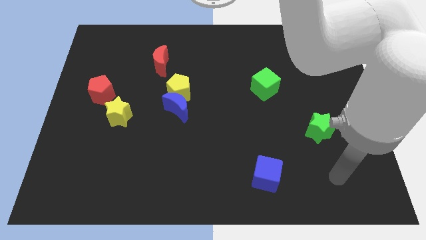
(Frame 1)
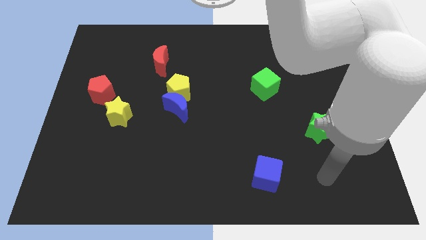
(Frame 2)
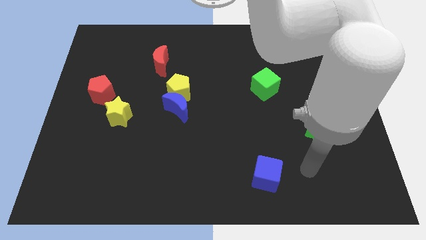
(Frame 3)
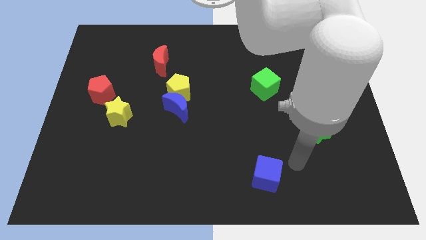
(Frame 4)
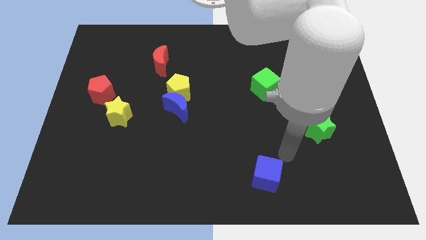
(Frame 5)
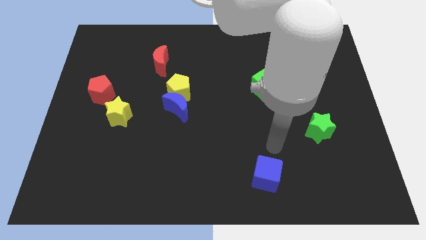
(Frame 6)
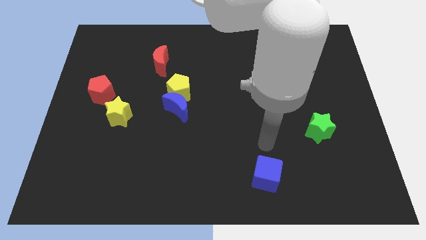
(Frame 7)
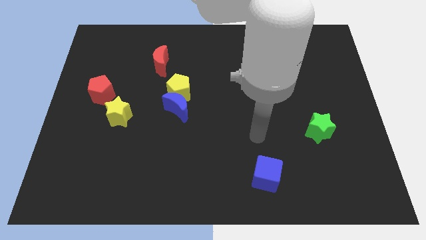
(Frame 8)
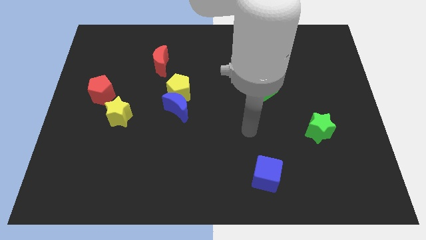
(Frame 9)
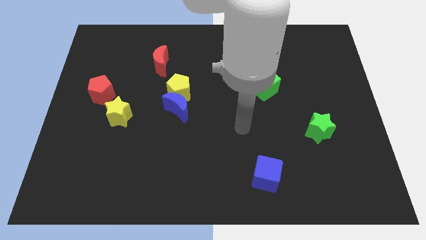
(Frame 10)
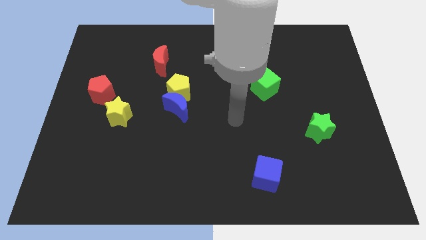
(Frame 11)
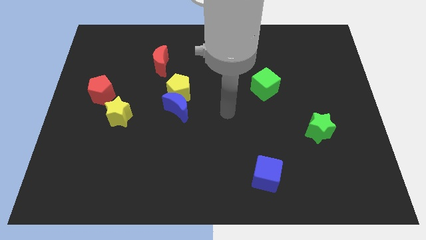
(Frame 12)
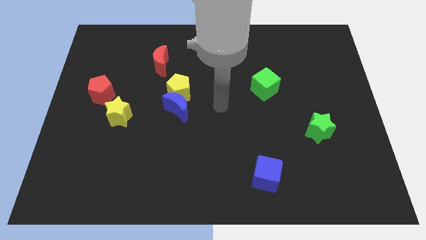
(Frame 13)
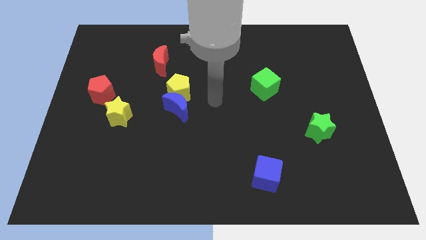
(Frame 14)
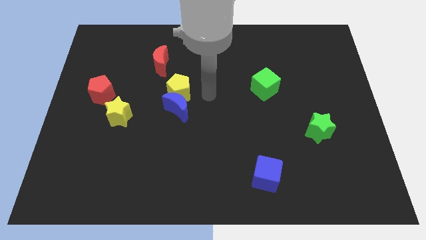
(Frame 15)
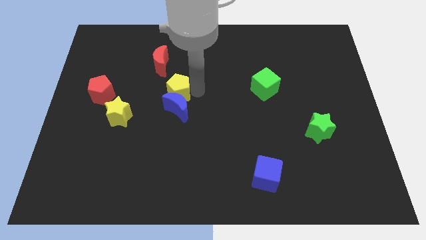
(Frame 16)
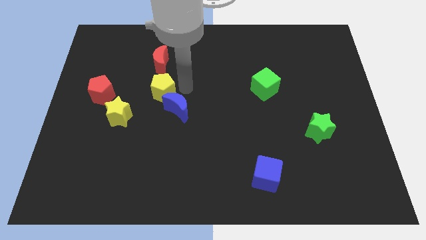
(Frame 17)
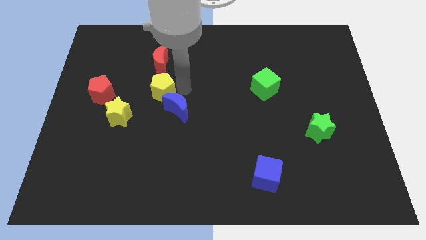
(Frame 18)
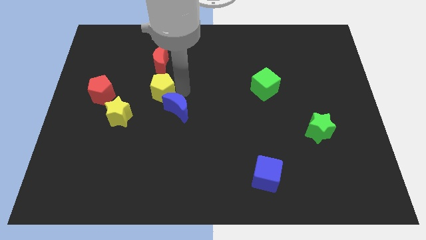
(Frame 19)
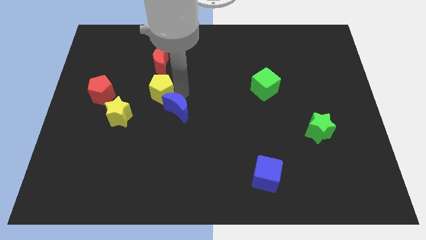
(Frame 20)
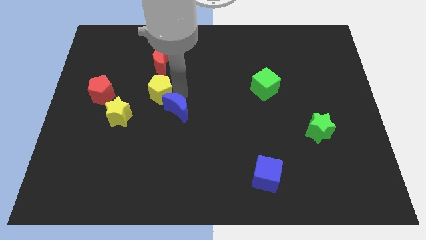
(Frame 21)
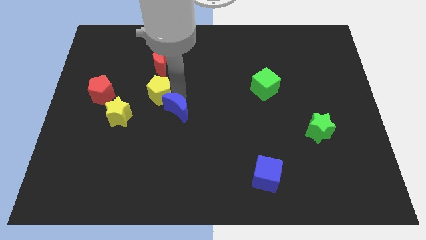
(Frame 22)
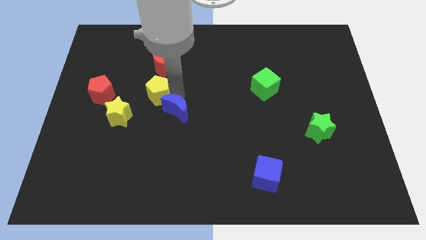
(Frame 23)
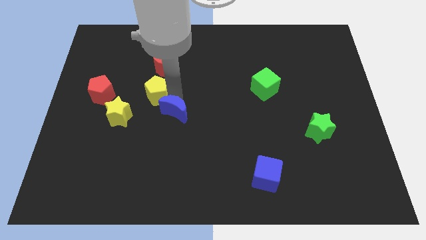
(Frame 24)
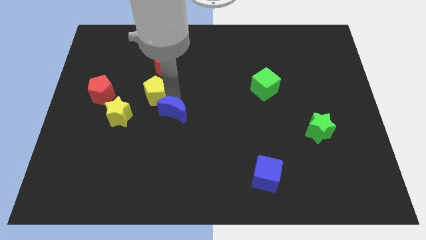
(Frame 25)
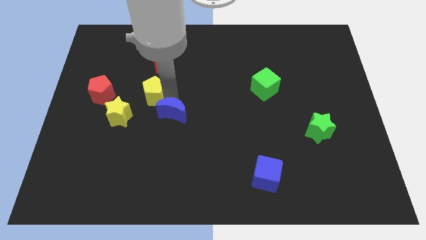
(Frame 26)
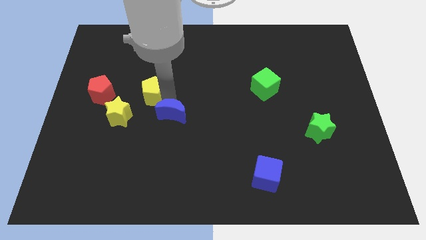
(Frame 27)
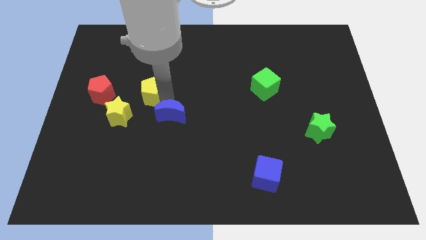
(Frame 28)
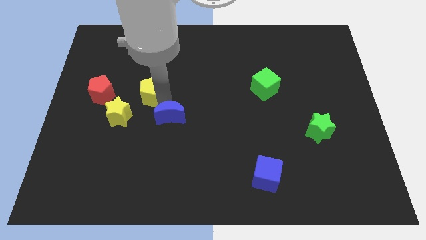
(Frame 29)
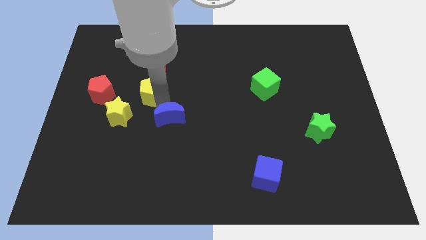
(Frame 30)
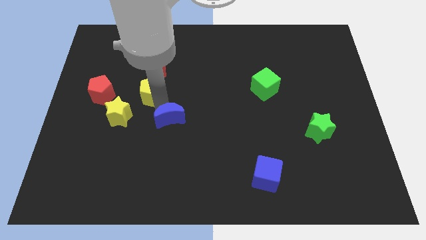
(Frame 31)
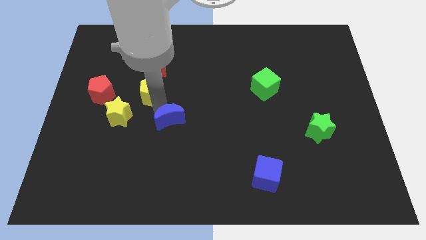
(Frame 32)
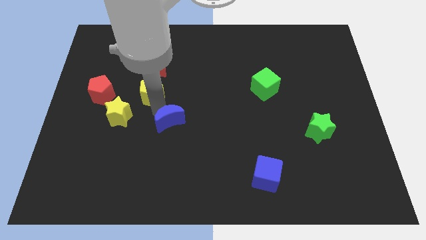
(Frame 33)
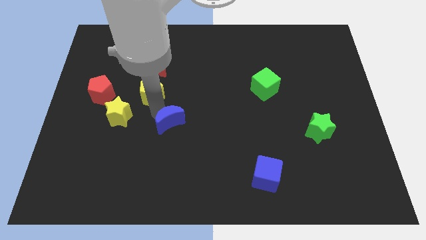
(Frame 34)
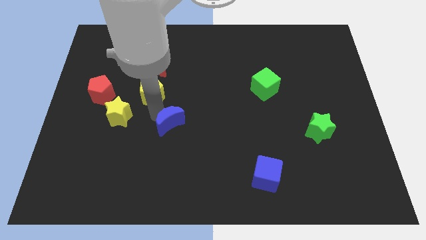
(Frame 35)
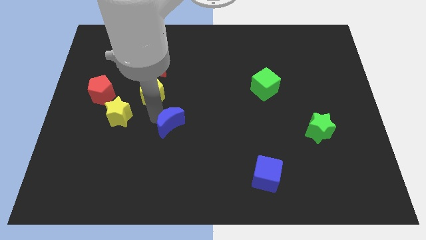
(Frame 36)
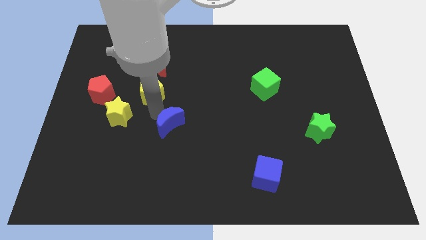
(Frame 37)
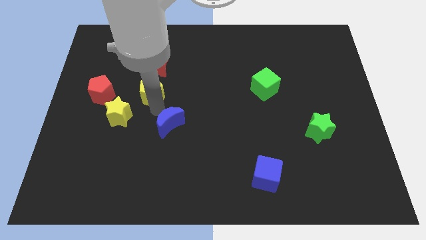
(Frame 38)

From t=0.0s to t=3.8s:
pull the blue moon apart from the yellow pentagon

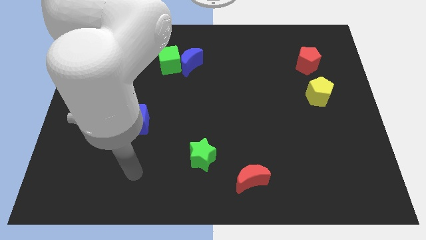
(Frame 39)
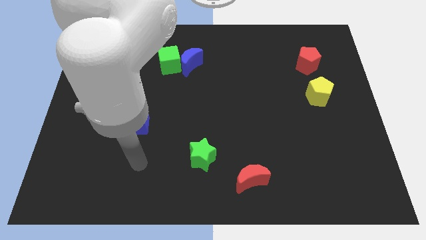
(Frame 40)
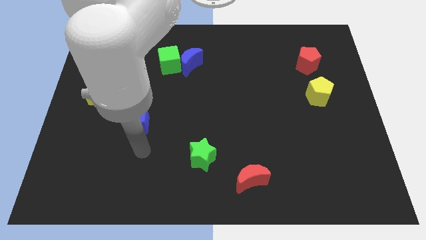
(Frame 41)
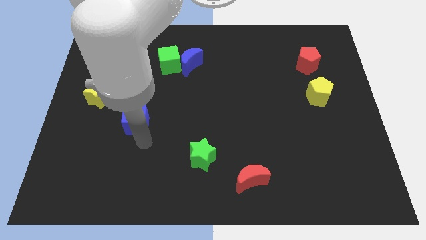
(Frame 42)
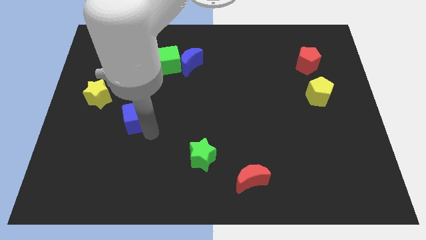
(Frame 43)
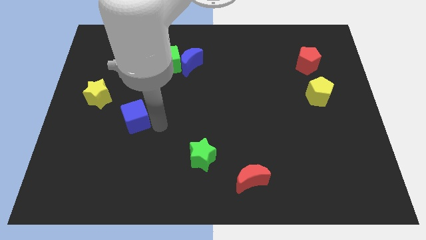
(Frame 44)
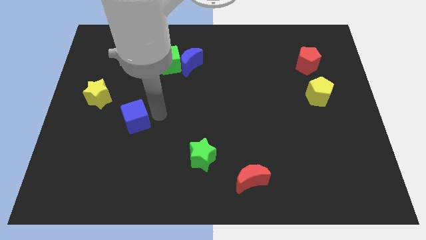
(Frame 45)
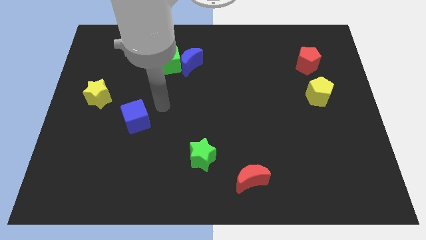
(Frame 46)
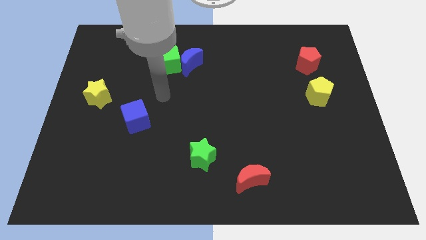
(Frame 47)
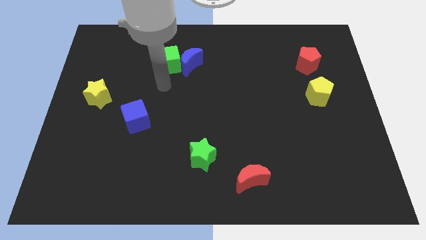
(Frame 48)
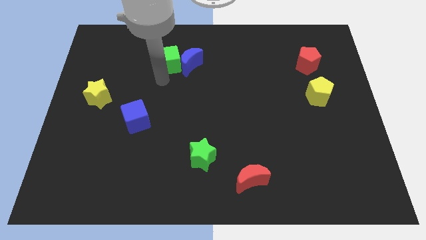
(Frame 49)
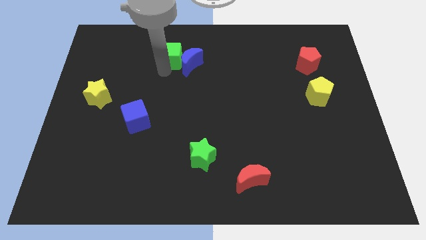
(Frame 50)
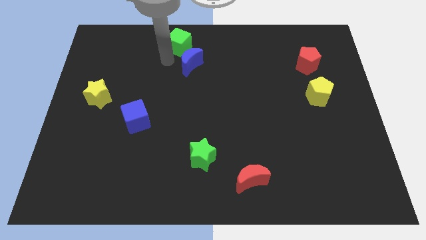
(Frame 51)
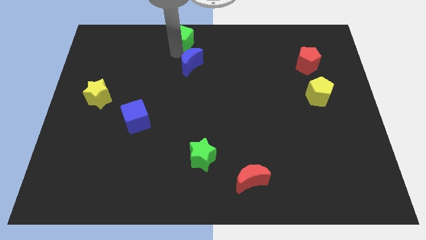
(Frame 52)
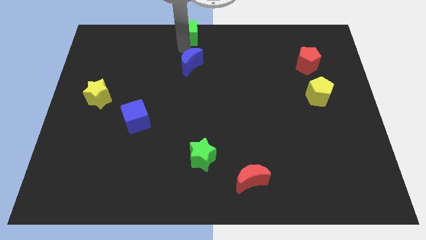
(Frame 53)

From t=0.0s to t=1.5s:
separate the blue moon from the green cube

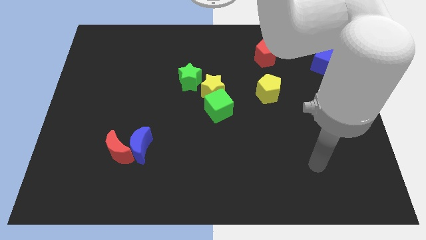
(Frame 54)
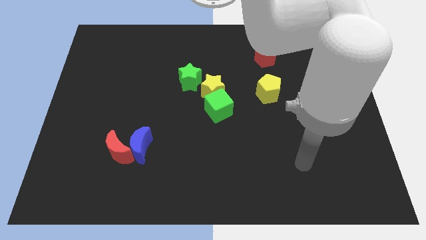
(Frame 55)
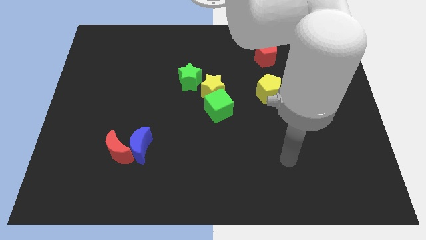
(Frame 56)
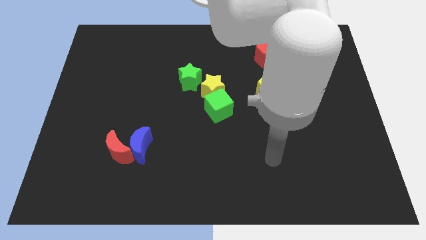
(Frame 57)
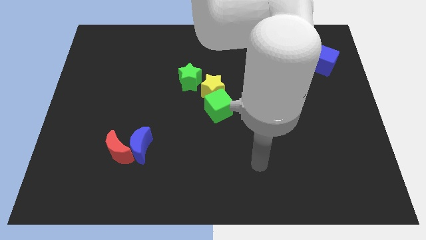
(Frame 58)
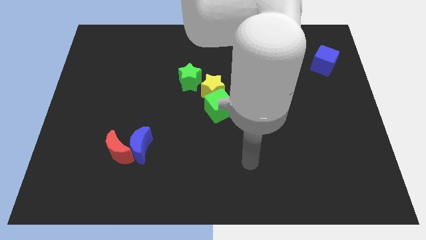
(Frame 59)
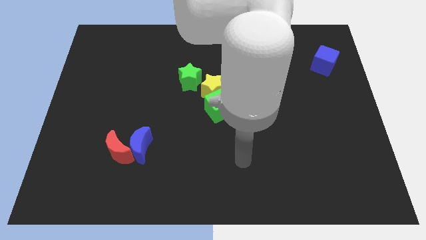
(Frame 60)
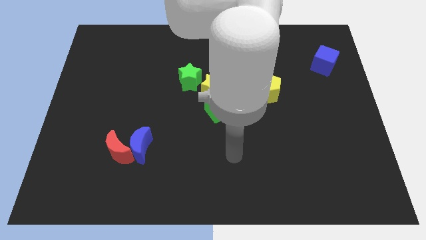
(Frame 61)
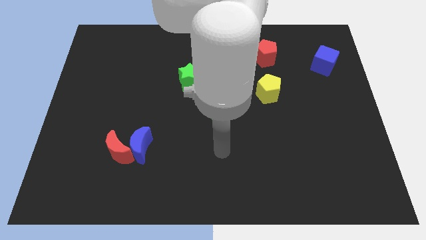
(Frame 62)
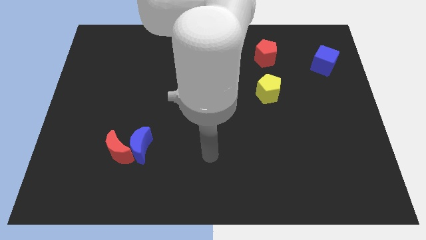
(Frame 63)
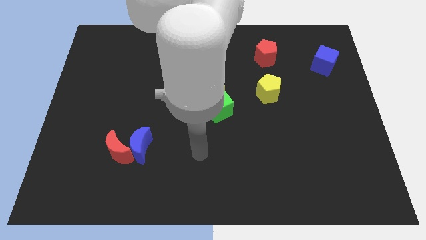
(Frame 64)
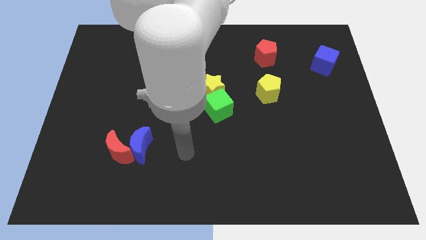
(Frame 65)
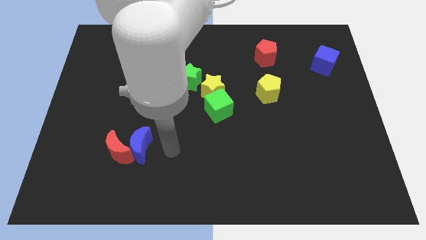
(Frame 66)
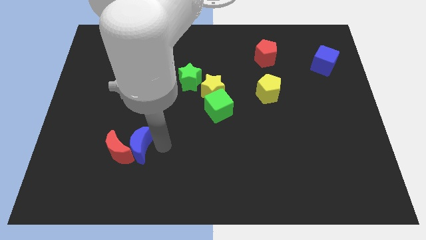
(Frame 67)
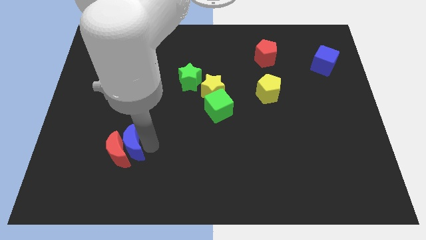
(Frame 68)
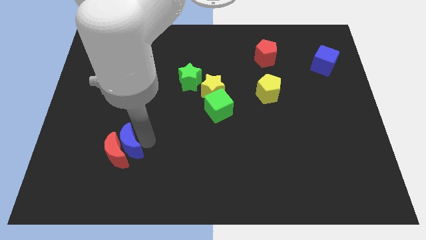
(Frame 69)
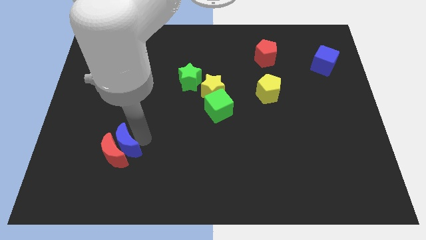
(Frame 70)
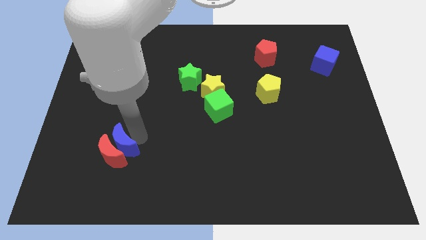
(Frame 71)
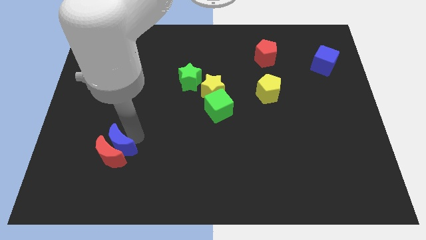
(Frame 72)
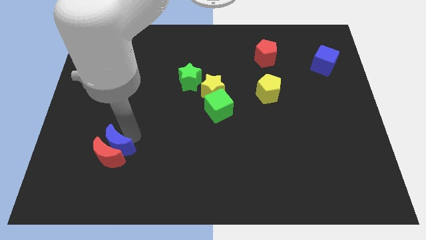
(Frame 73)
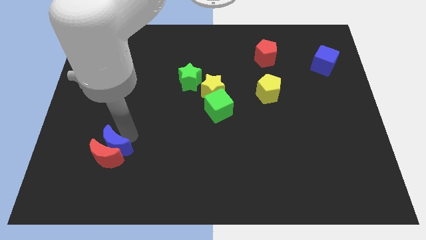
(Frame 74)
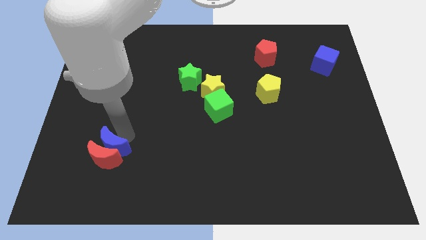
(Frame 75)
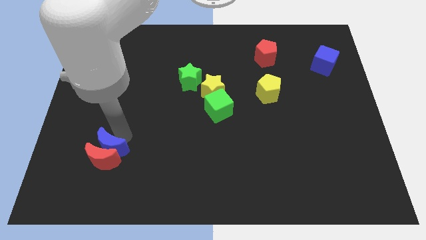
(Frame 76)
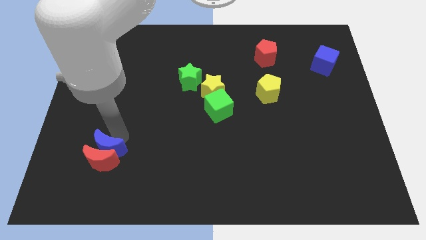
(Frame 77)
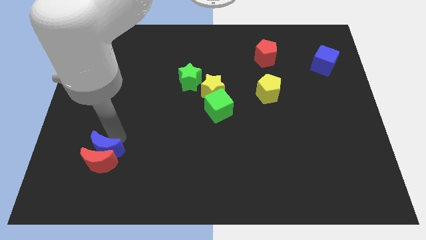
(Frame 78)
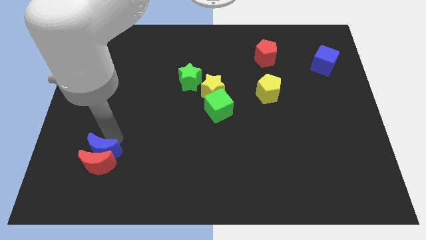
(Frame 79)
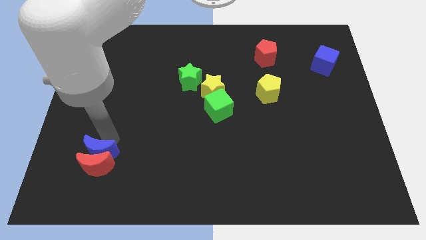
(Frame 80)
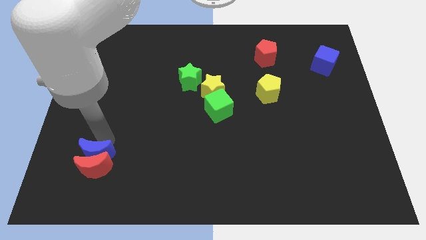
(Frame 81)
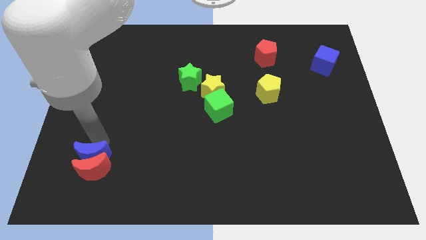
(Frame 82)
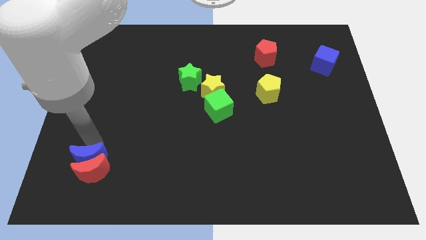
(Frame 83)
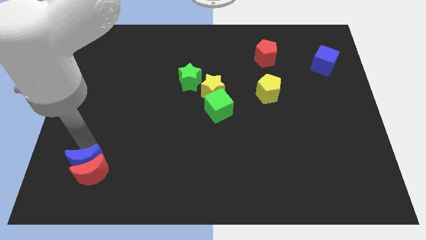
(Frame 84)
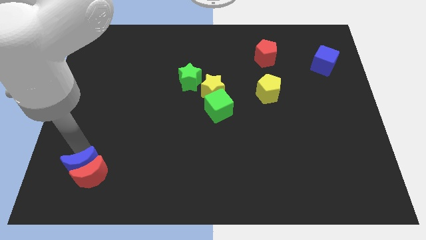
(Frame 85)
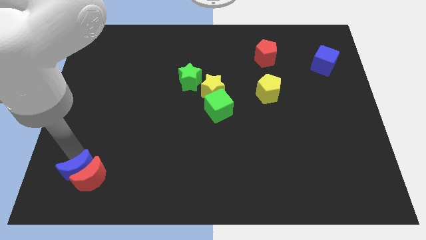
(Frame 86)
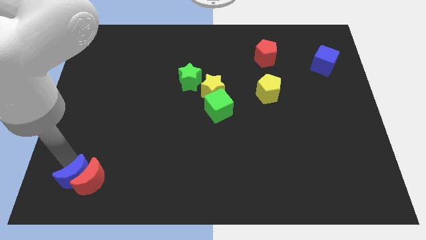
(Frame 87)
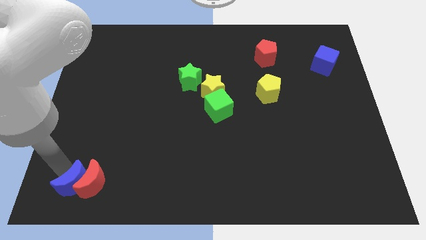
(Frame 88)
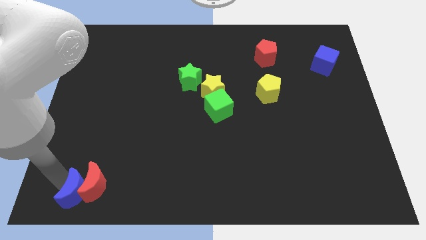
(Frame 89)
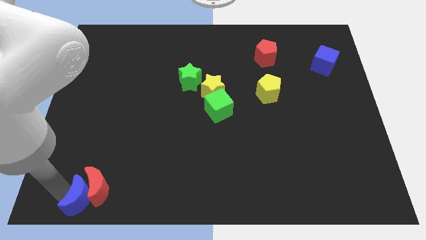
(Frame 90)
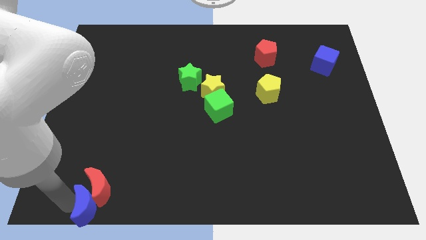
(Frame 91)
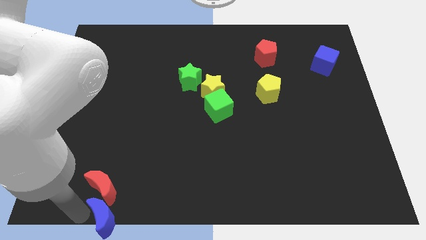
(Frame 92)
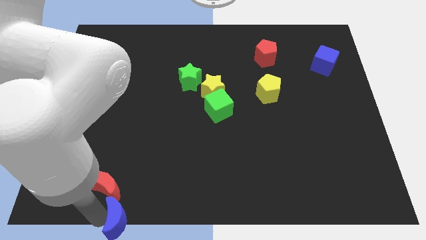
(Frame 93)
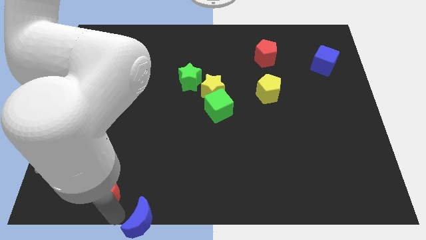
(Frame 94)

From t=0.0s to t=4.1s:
pull the red moon apart from the blue moon
